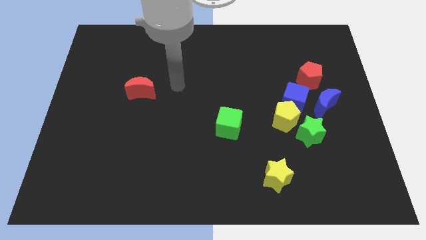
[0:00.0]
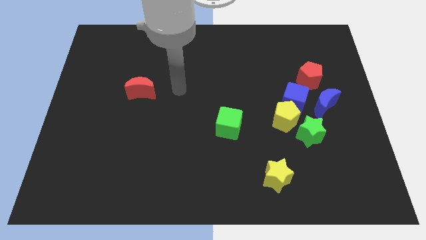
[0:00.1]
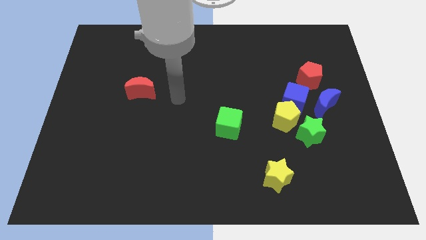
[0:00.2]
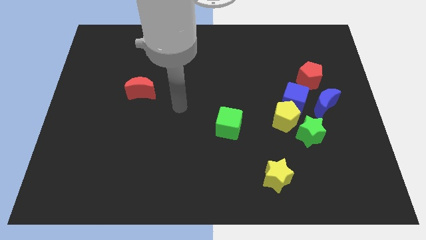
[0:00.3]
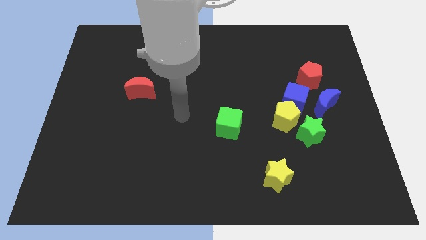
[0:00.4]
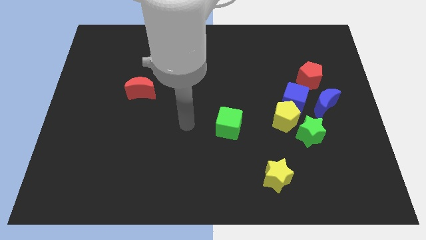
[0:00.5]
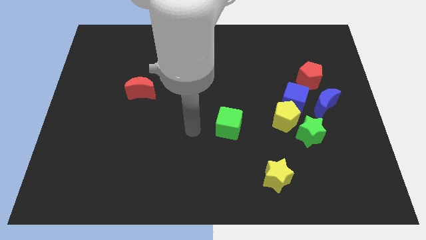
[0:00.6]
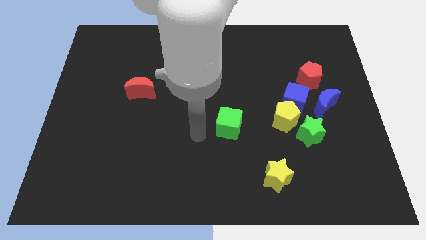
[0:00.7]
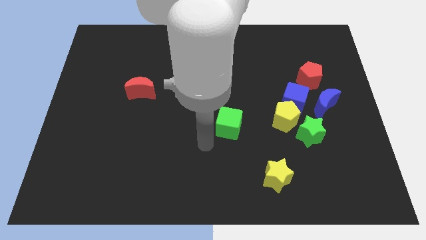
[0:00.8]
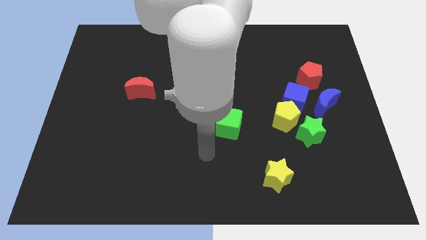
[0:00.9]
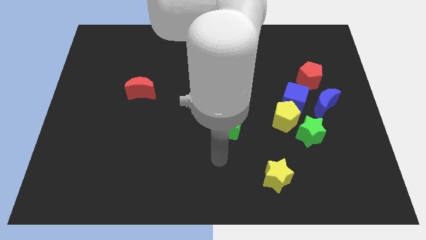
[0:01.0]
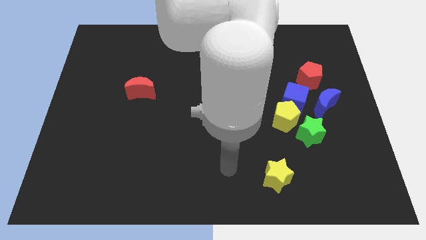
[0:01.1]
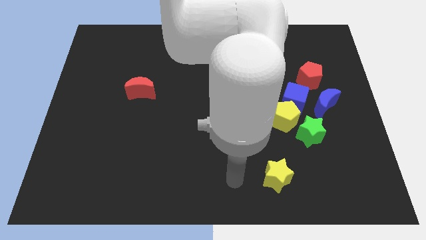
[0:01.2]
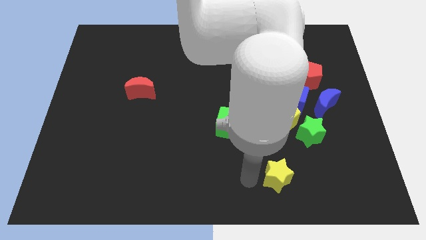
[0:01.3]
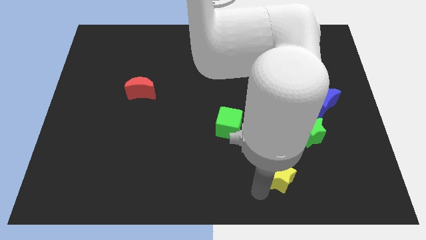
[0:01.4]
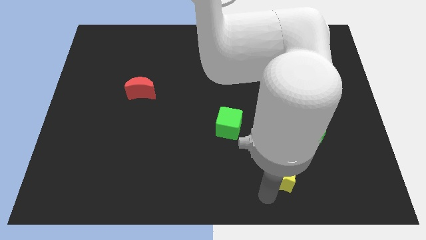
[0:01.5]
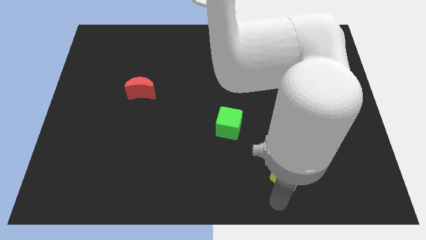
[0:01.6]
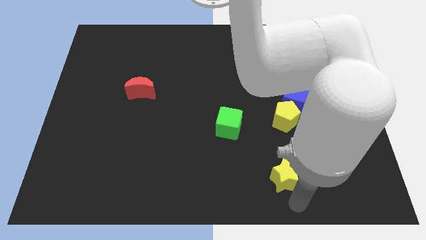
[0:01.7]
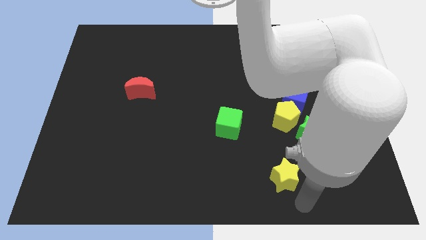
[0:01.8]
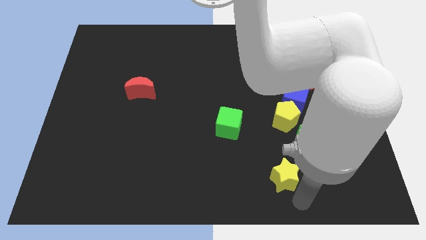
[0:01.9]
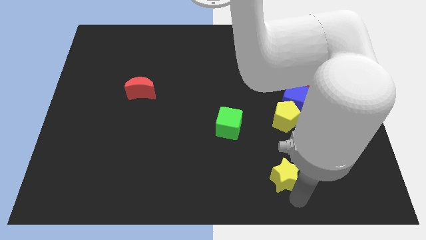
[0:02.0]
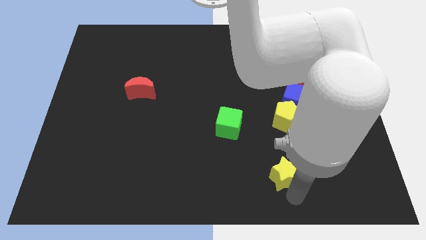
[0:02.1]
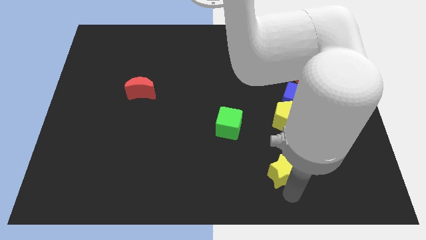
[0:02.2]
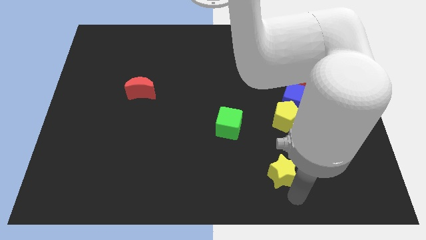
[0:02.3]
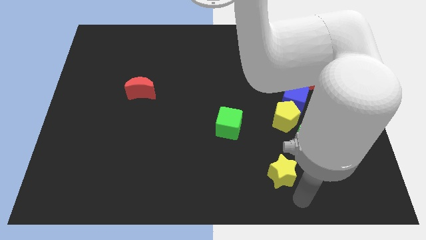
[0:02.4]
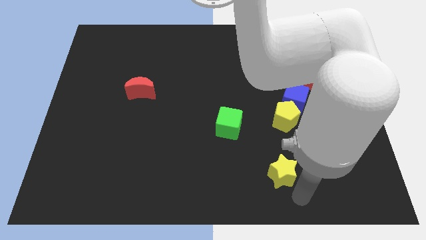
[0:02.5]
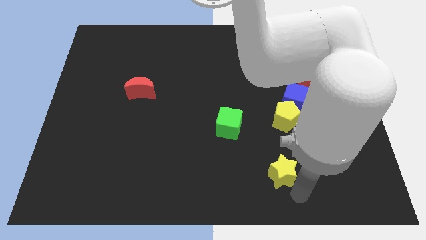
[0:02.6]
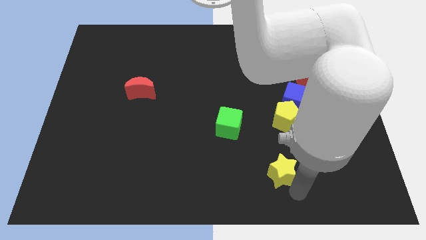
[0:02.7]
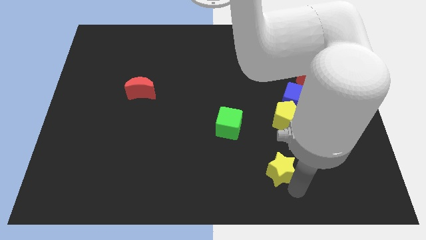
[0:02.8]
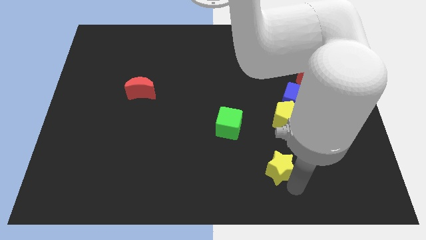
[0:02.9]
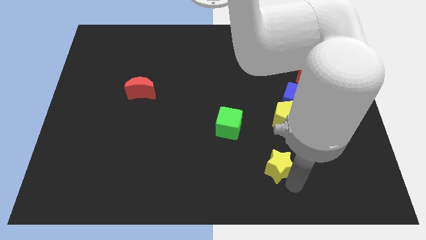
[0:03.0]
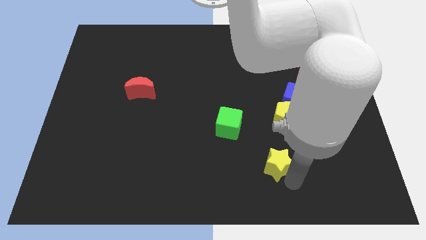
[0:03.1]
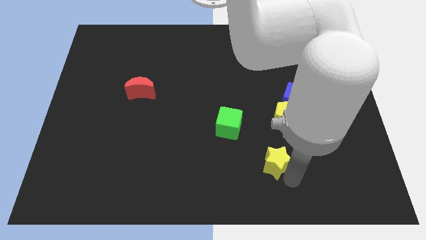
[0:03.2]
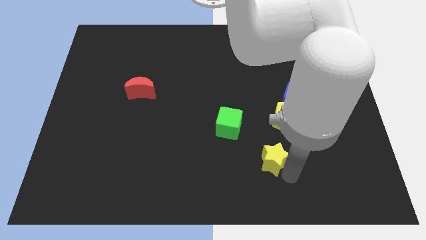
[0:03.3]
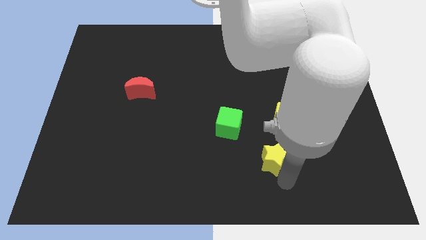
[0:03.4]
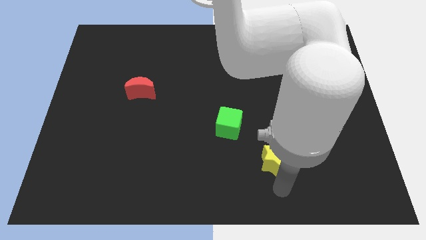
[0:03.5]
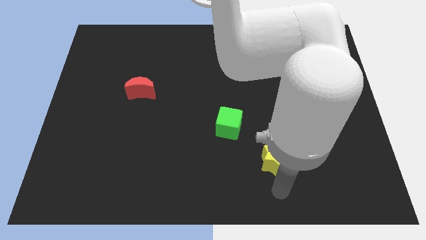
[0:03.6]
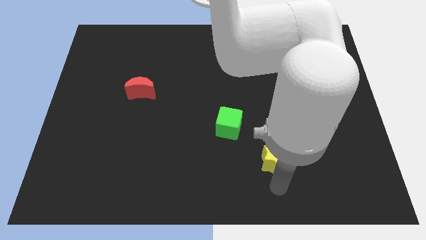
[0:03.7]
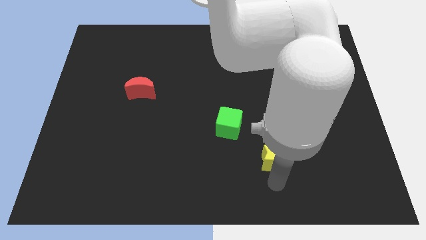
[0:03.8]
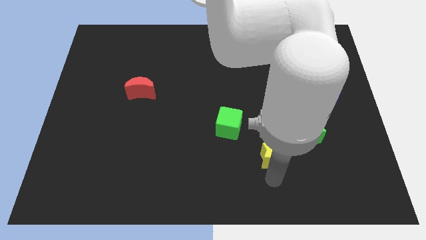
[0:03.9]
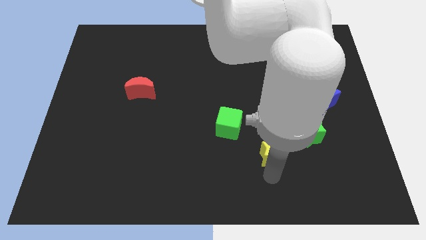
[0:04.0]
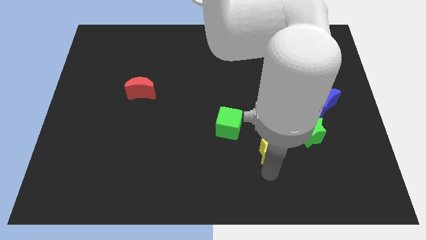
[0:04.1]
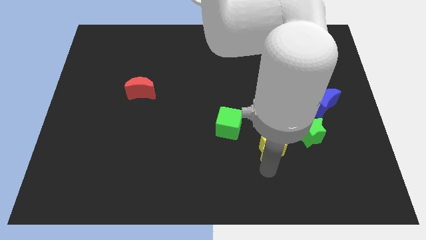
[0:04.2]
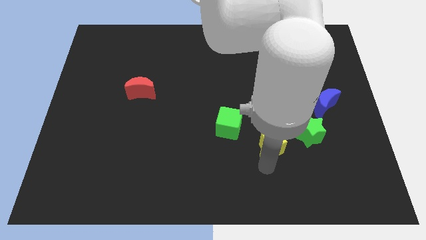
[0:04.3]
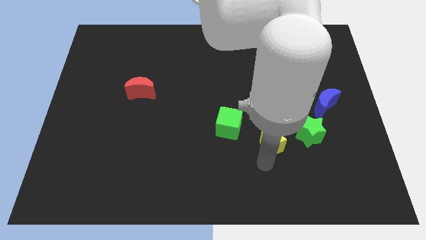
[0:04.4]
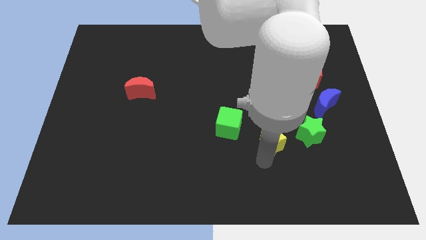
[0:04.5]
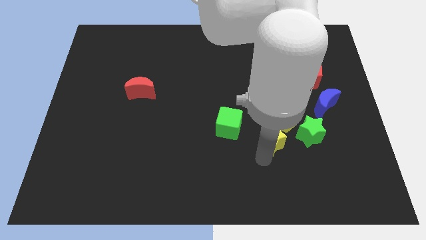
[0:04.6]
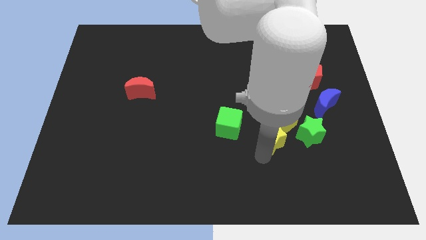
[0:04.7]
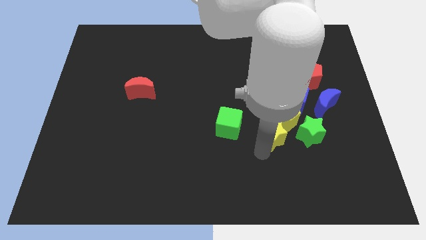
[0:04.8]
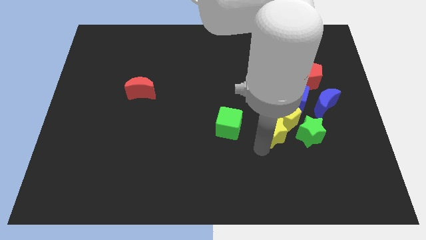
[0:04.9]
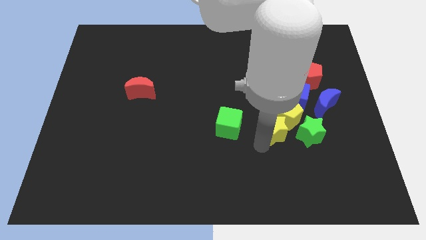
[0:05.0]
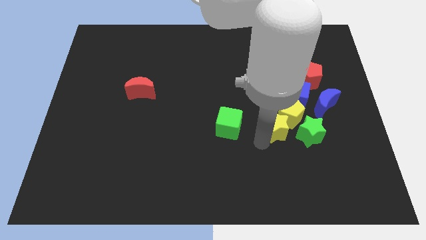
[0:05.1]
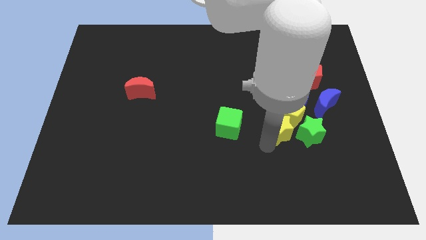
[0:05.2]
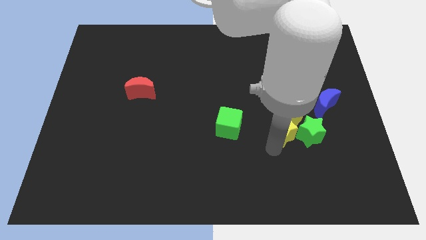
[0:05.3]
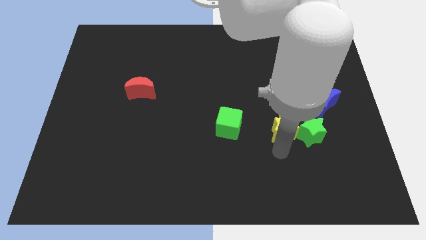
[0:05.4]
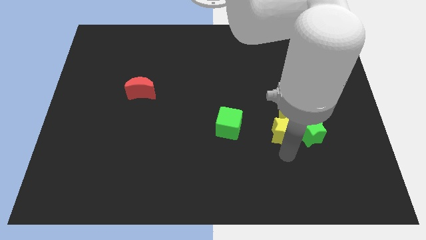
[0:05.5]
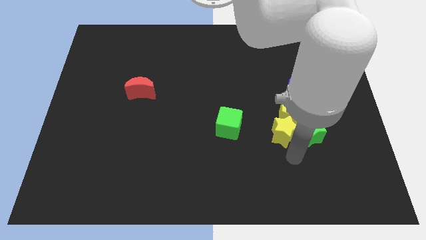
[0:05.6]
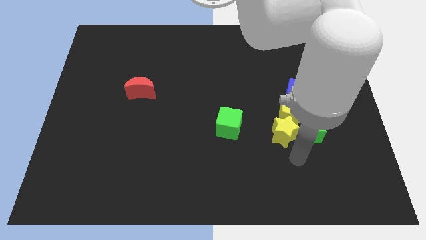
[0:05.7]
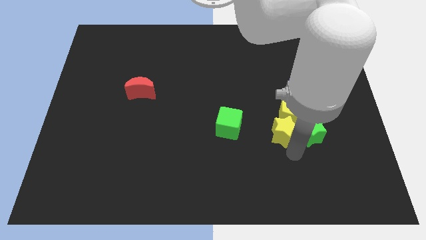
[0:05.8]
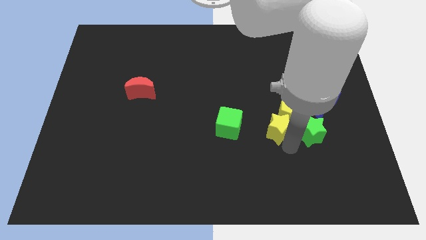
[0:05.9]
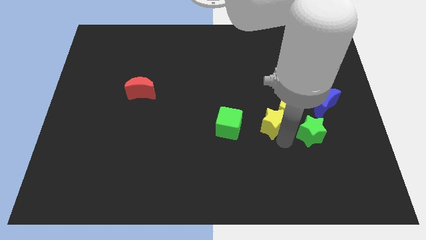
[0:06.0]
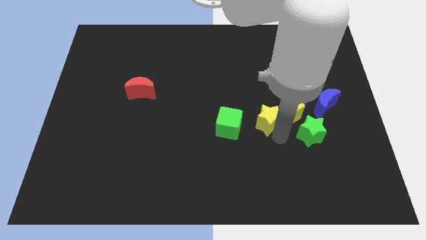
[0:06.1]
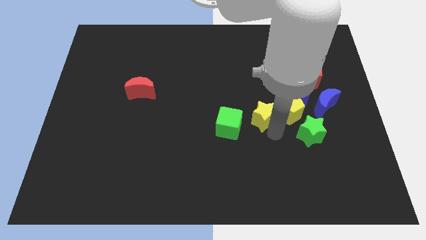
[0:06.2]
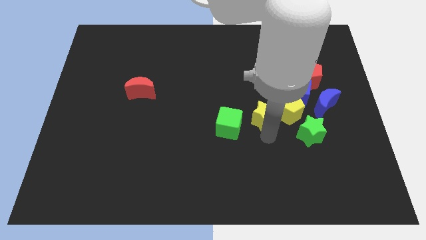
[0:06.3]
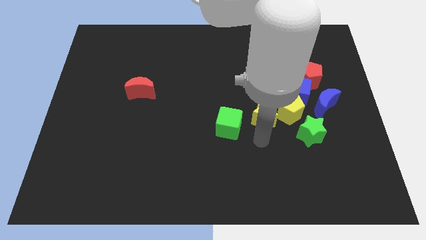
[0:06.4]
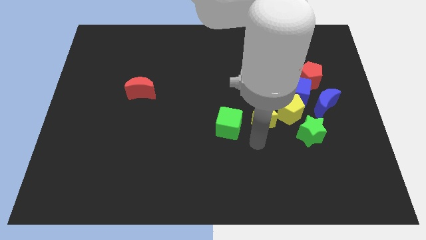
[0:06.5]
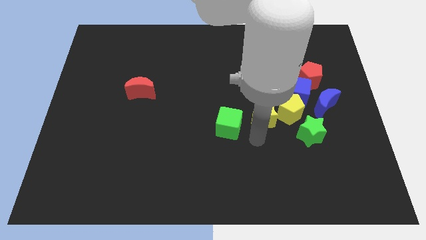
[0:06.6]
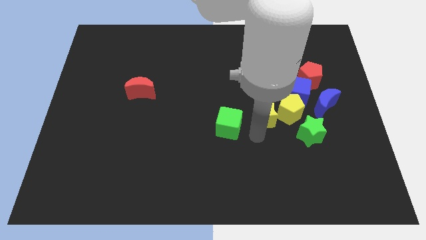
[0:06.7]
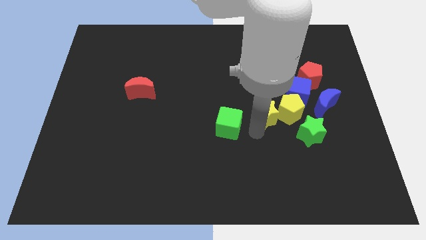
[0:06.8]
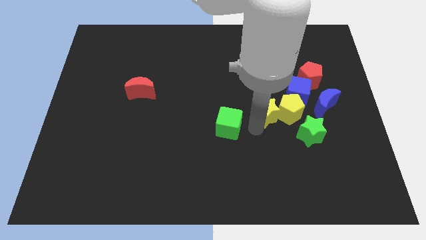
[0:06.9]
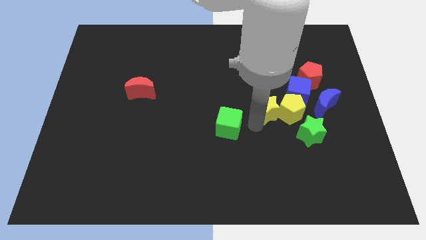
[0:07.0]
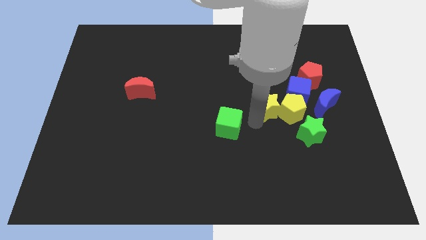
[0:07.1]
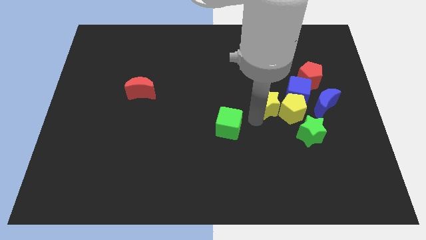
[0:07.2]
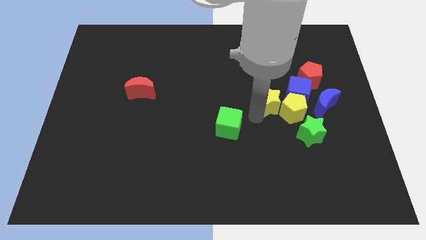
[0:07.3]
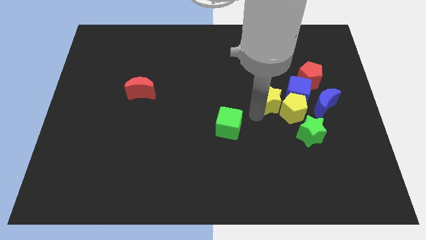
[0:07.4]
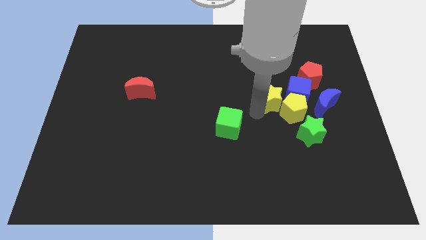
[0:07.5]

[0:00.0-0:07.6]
slide the yellow star upwards

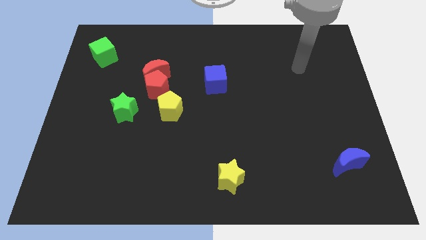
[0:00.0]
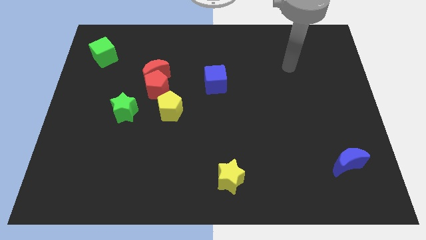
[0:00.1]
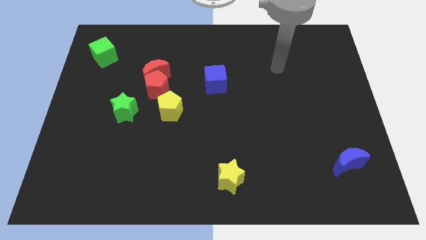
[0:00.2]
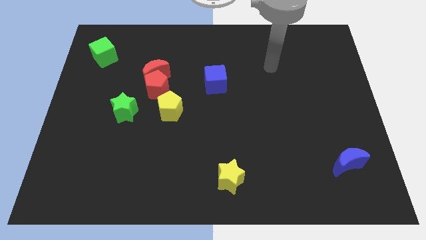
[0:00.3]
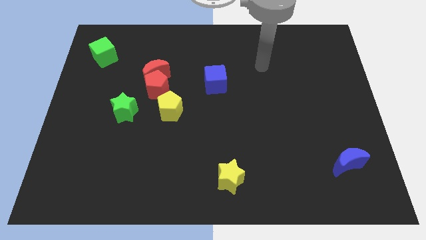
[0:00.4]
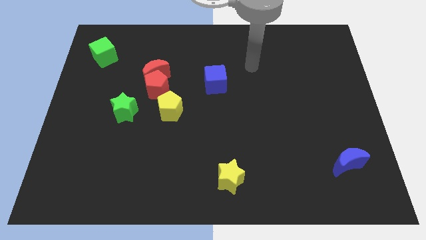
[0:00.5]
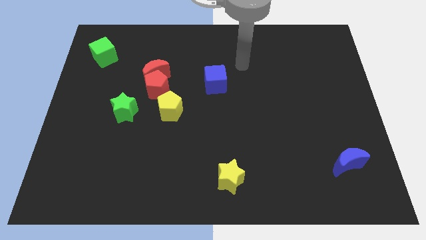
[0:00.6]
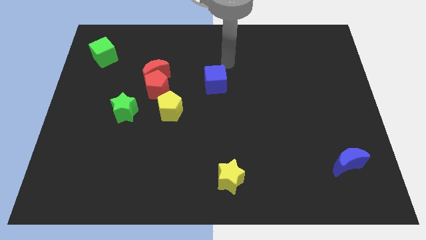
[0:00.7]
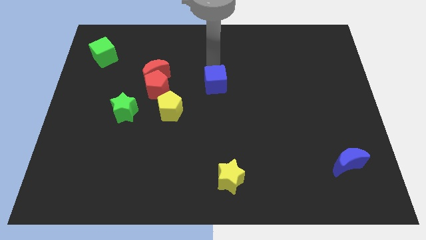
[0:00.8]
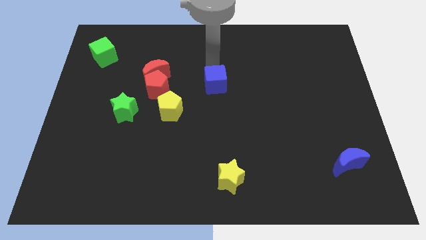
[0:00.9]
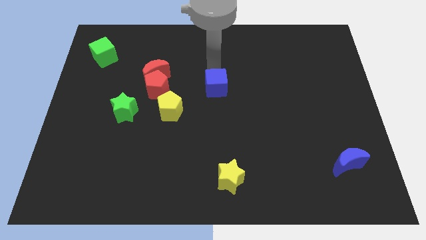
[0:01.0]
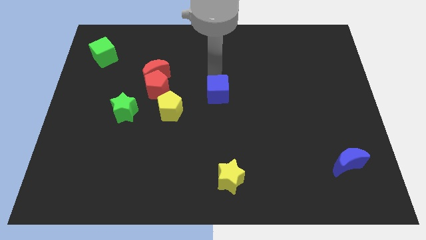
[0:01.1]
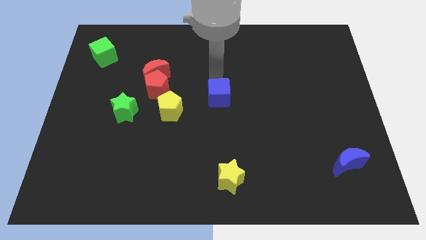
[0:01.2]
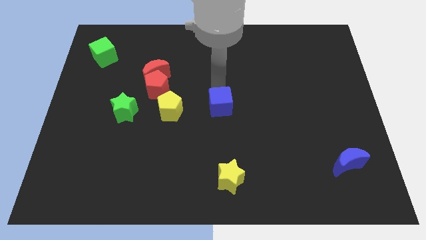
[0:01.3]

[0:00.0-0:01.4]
slide the blue cube downwards somewhat
